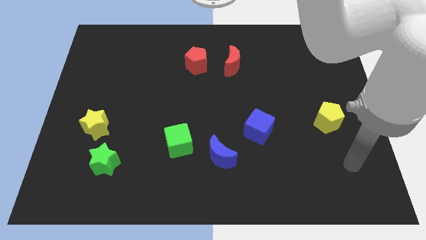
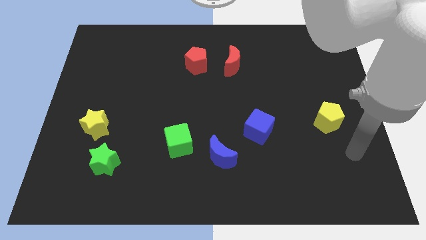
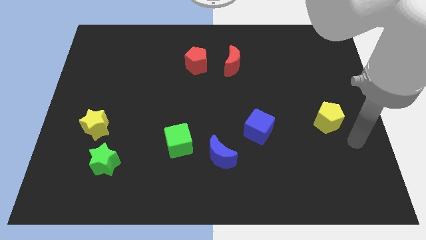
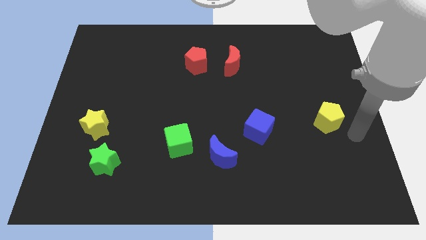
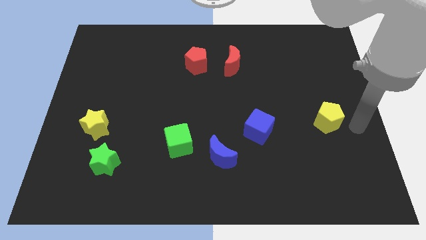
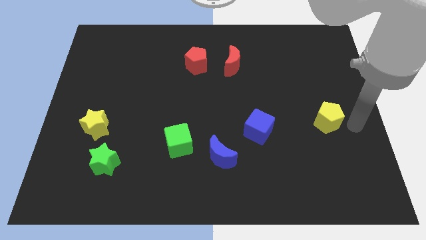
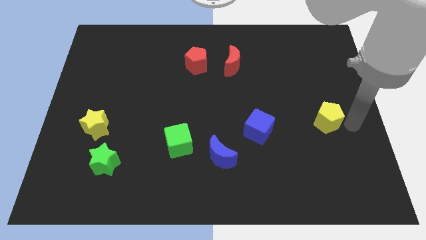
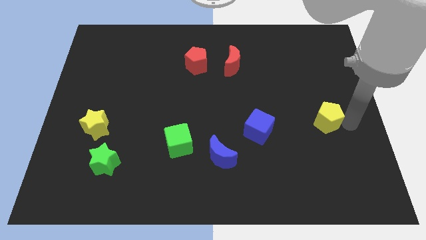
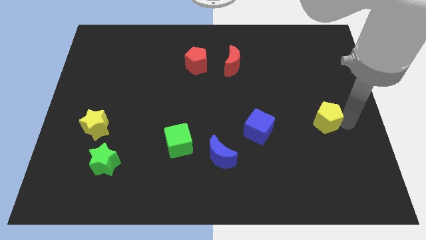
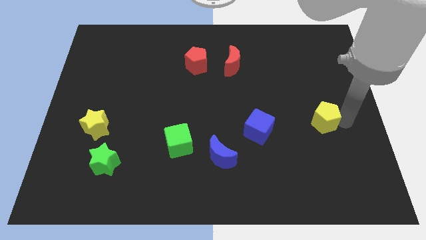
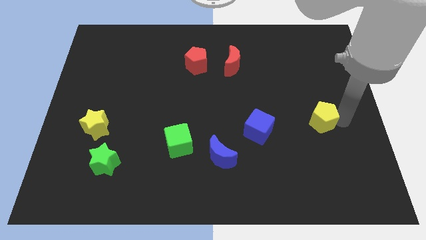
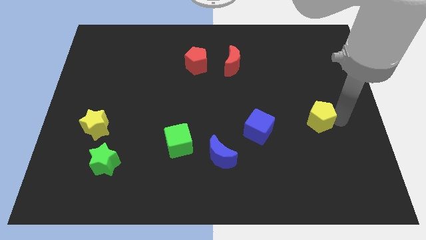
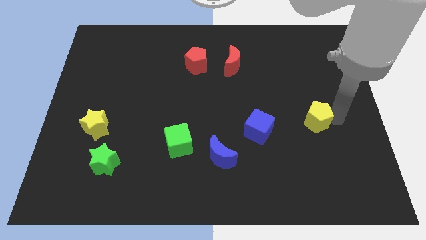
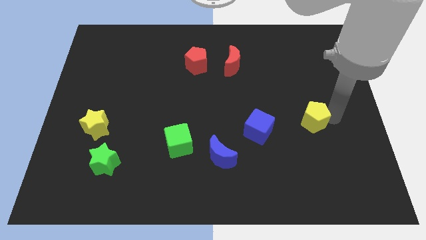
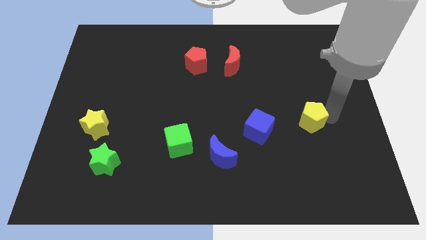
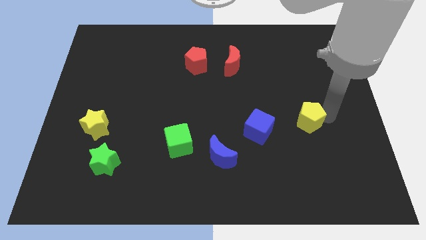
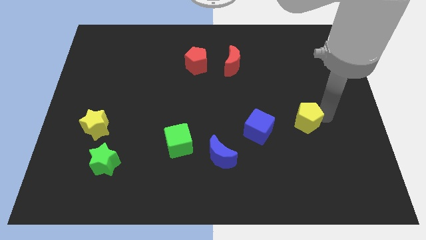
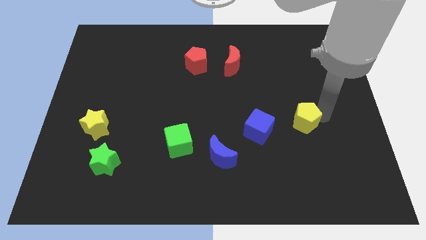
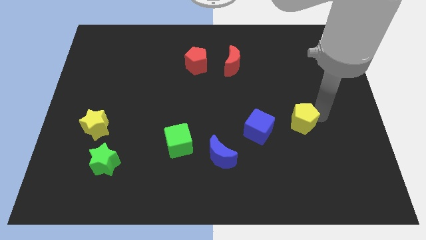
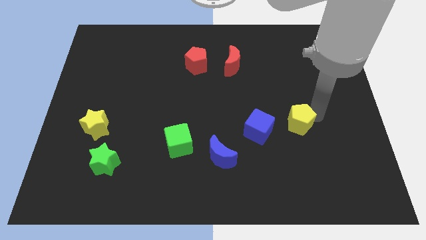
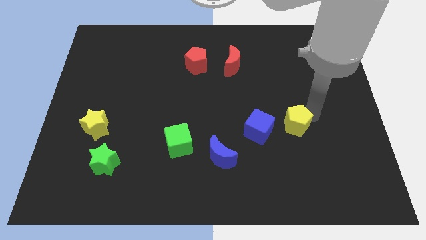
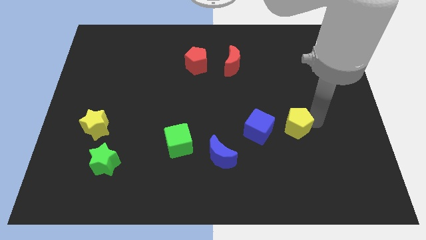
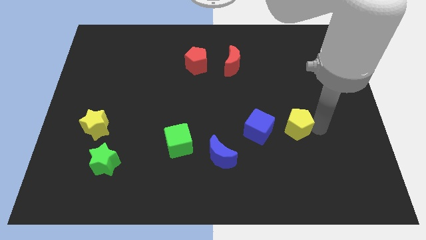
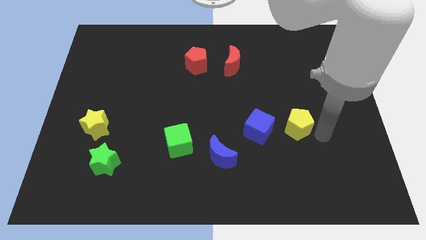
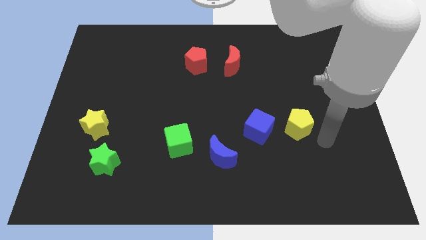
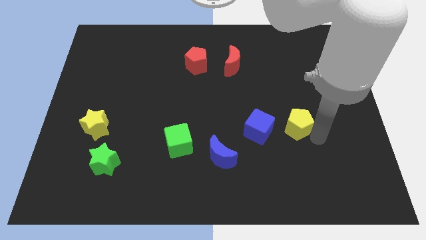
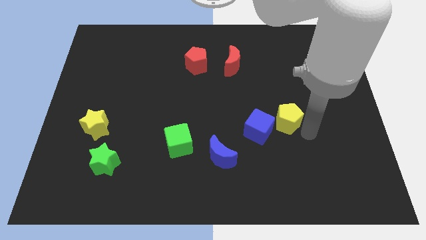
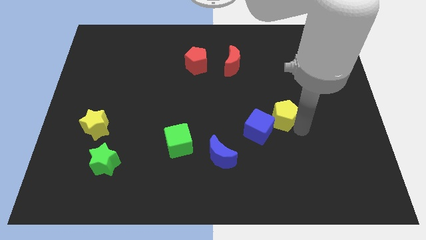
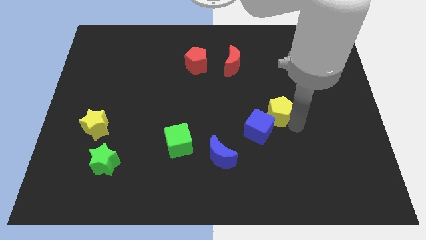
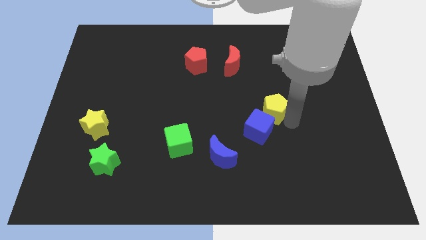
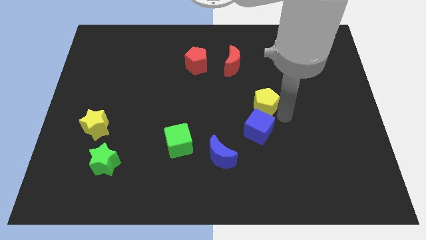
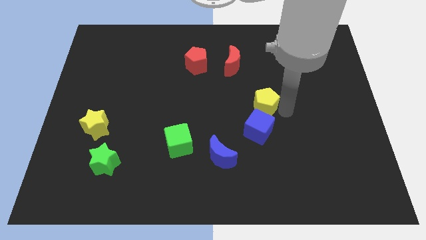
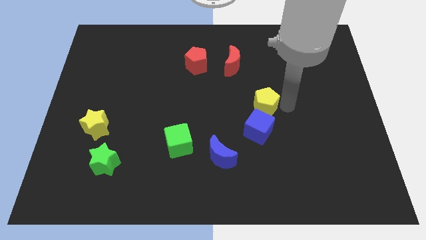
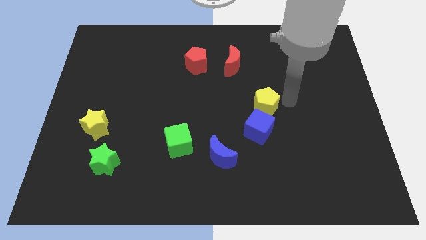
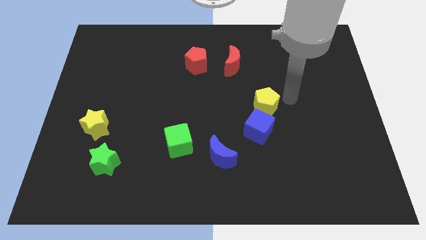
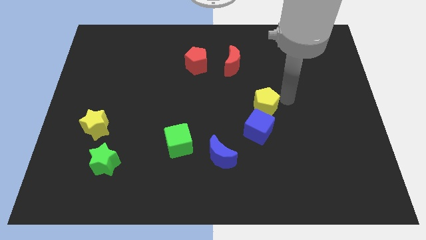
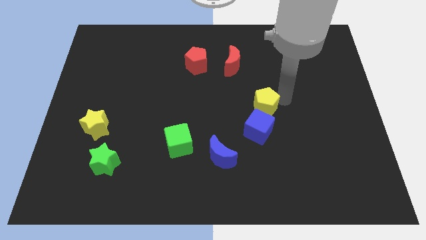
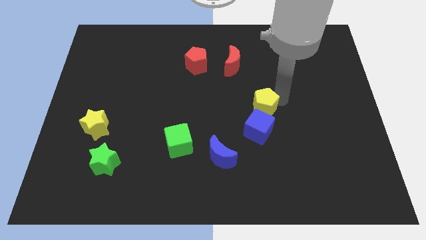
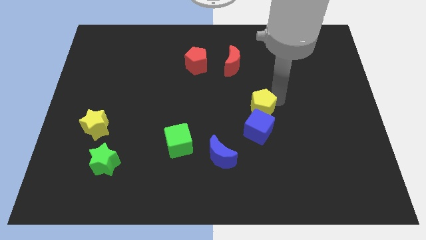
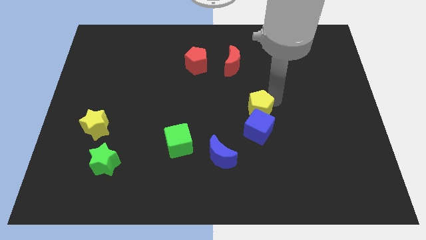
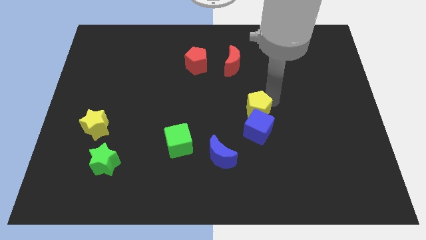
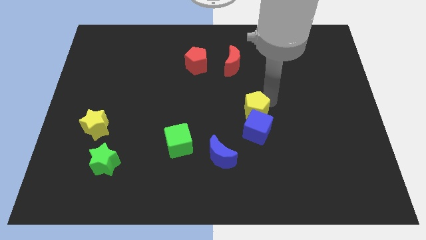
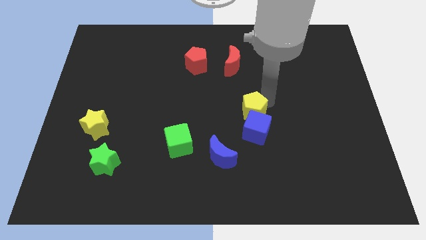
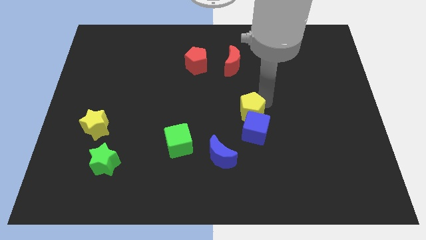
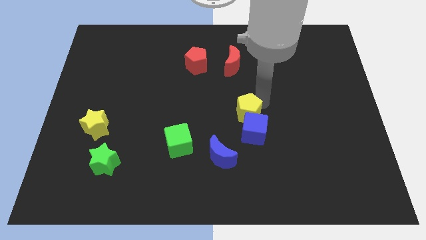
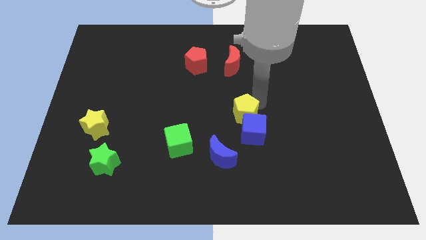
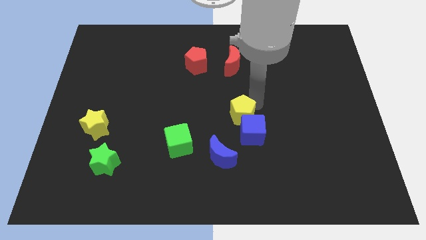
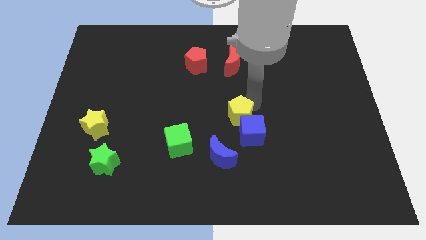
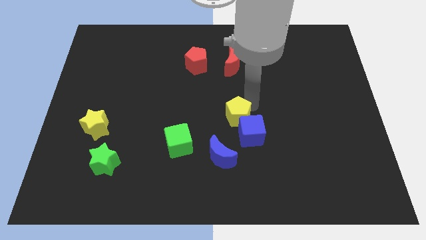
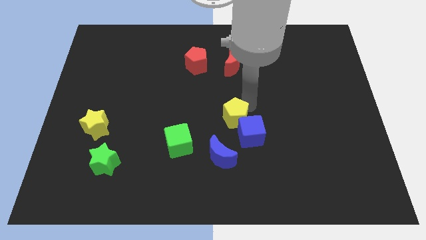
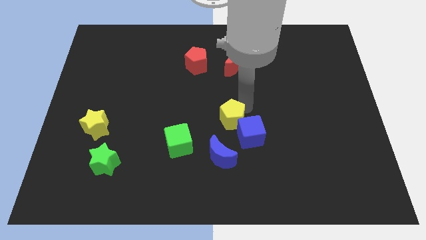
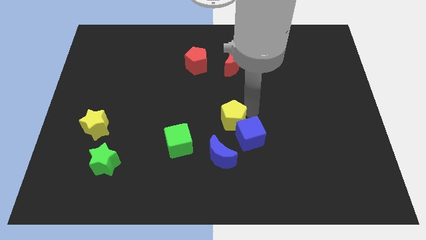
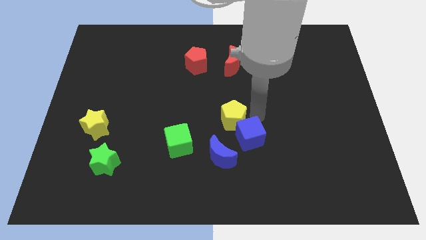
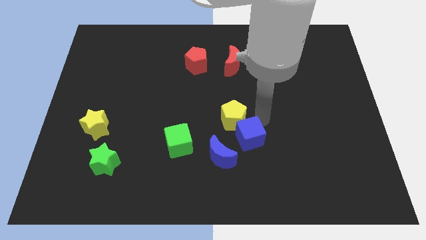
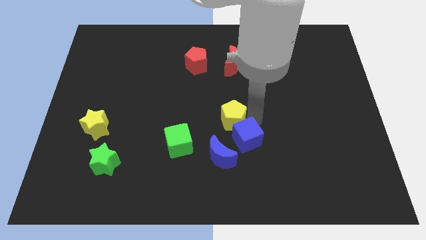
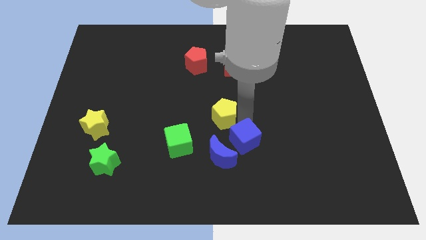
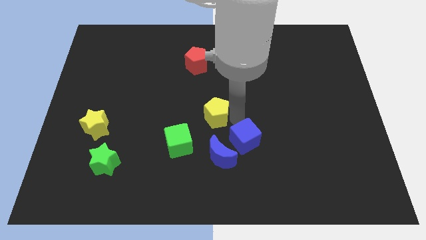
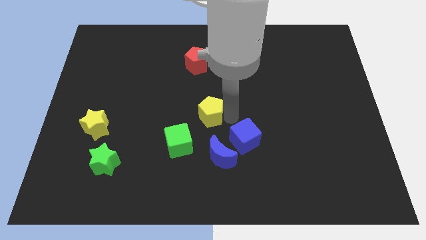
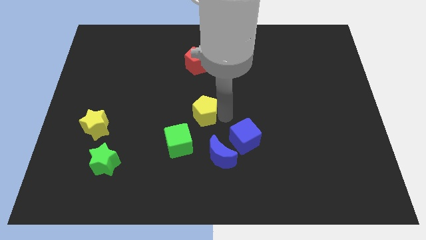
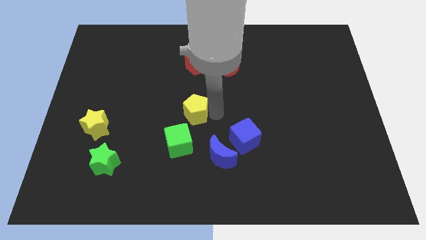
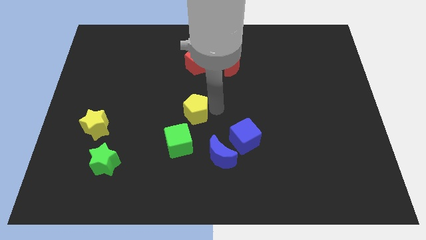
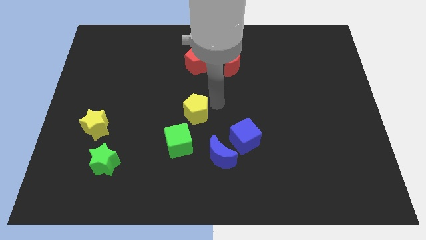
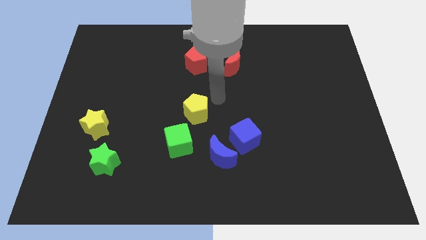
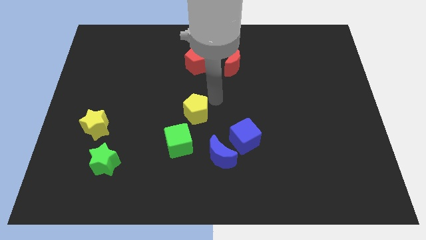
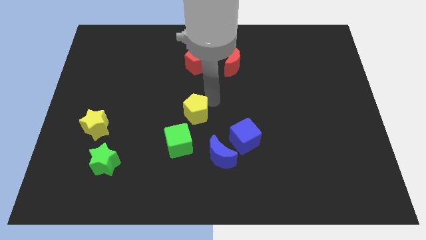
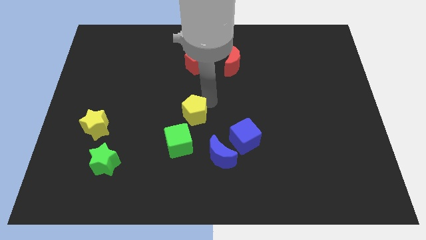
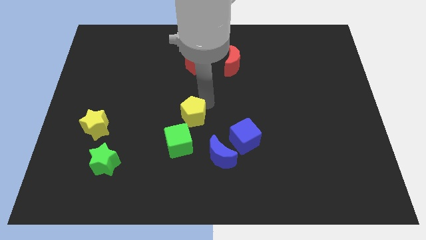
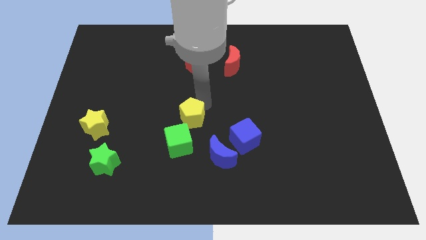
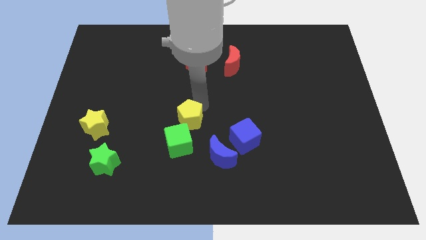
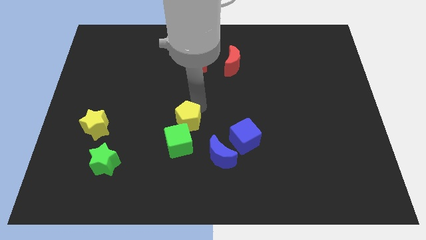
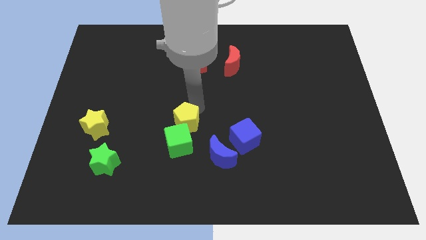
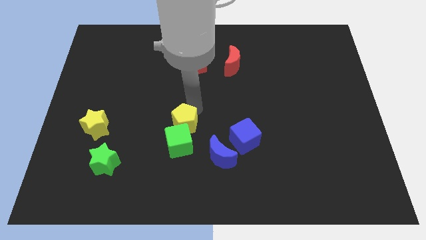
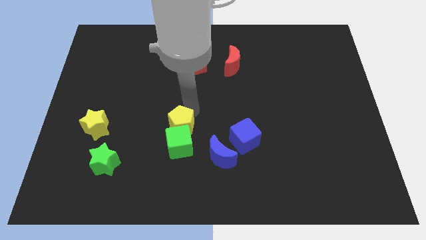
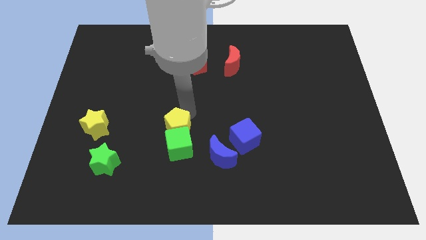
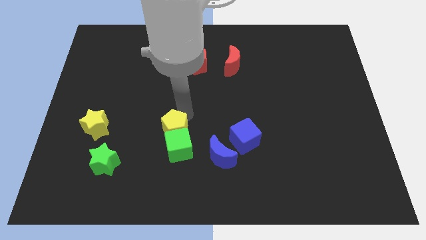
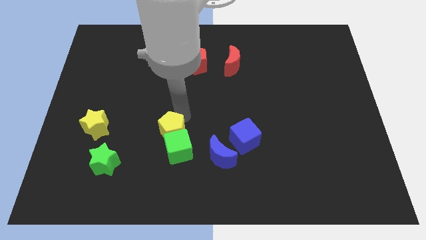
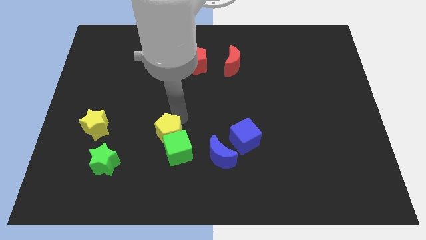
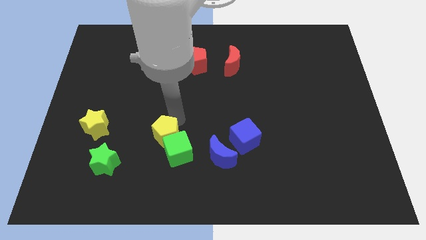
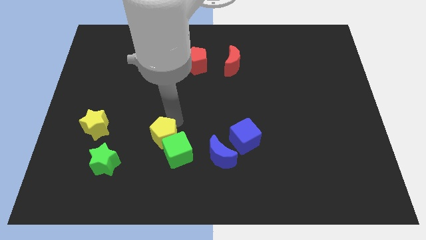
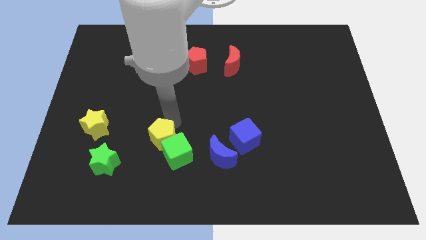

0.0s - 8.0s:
push the yellow pentagon to the left of the blue moon
